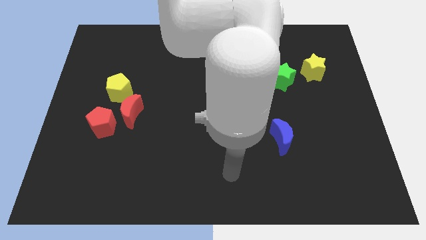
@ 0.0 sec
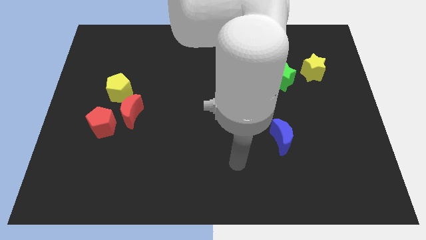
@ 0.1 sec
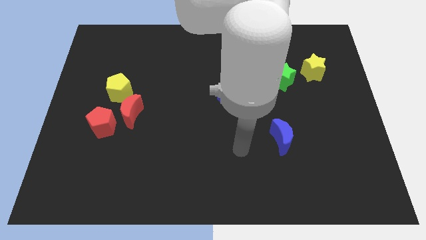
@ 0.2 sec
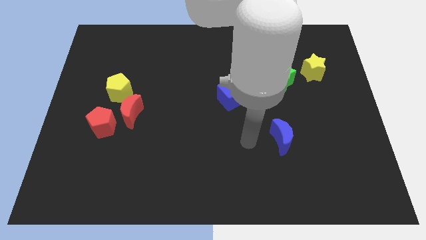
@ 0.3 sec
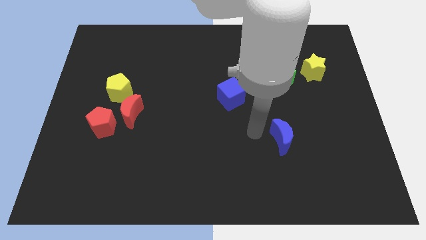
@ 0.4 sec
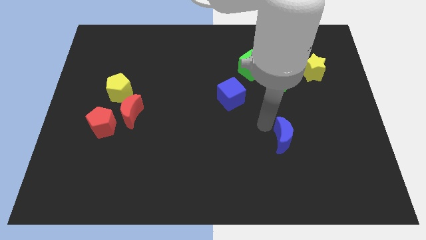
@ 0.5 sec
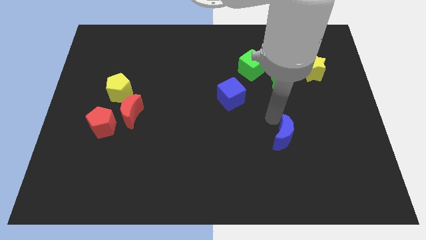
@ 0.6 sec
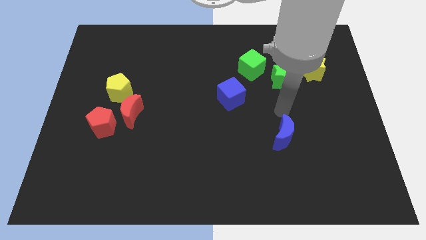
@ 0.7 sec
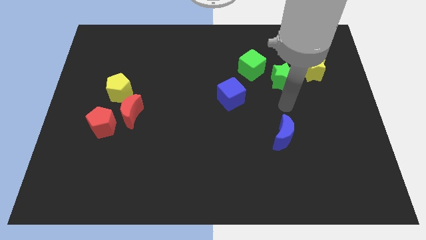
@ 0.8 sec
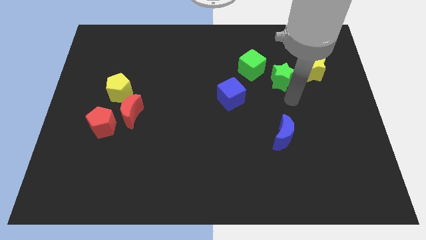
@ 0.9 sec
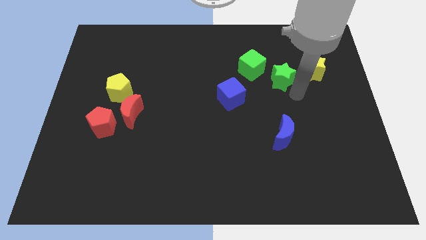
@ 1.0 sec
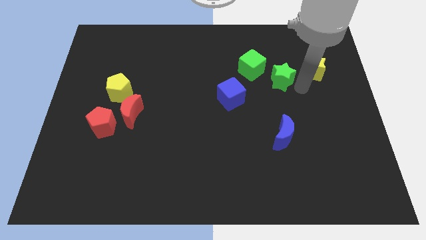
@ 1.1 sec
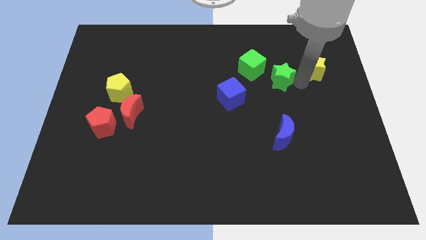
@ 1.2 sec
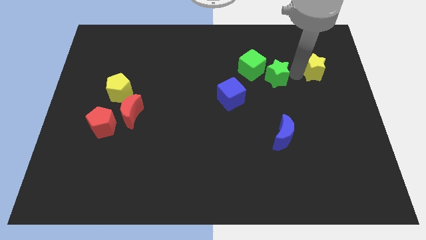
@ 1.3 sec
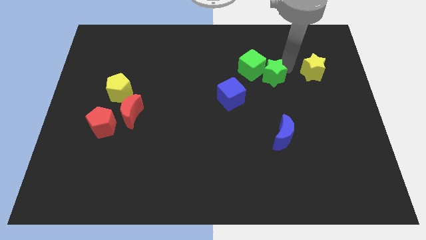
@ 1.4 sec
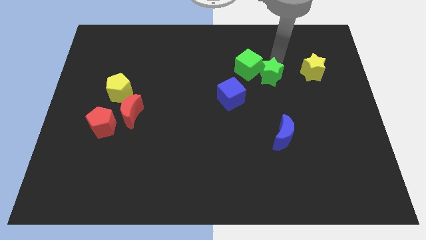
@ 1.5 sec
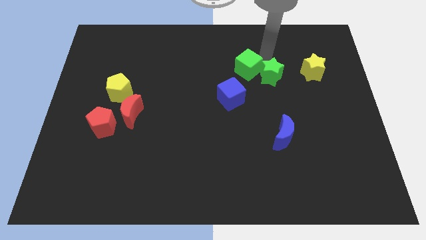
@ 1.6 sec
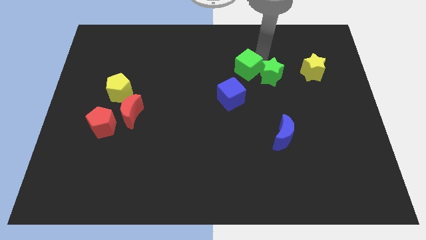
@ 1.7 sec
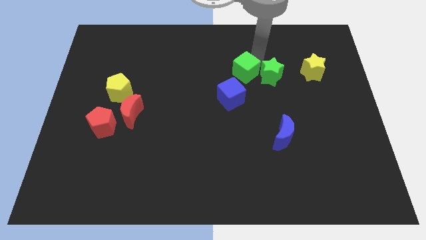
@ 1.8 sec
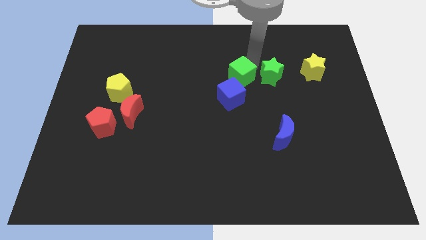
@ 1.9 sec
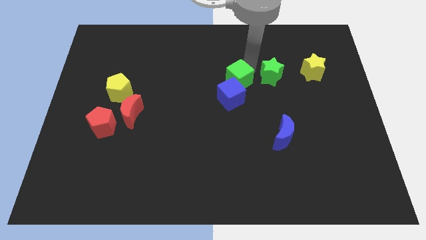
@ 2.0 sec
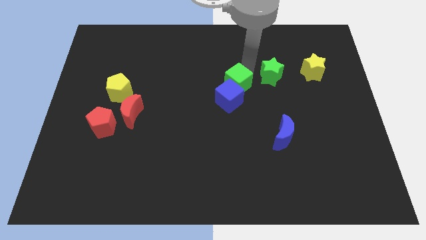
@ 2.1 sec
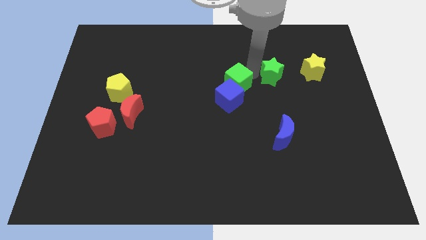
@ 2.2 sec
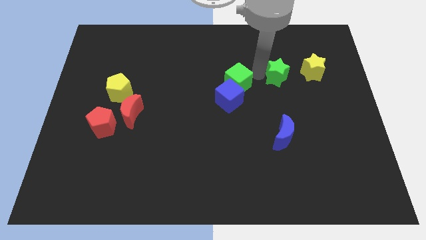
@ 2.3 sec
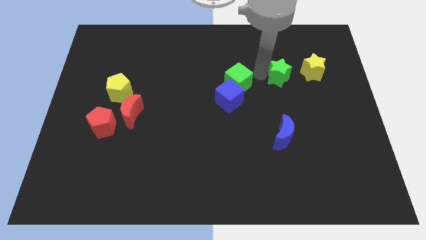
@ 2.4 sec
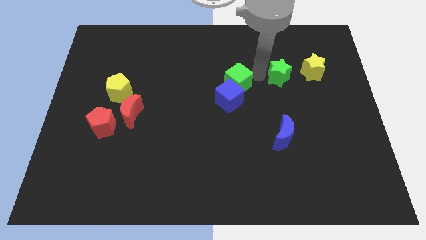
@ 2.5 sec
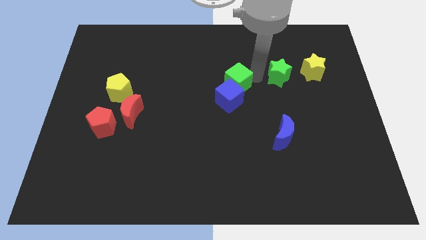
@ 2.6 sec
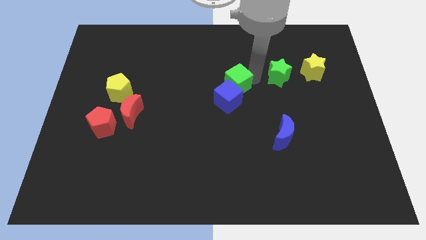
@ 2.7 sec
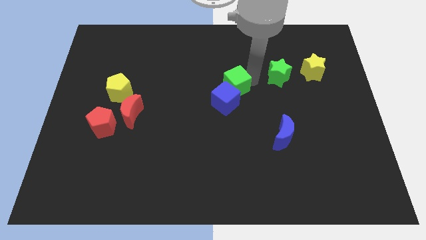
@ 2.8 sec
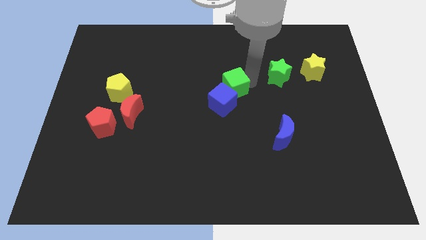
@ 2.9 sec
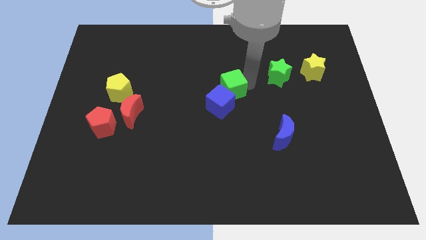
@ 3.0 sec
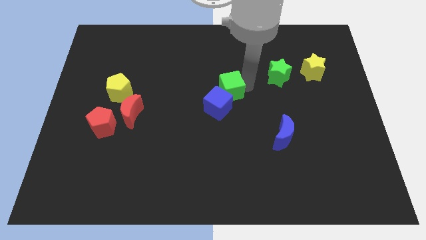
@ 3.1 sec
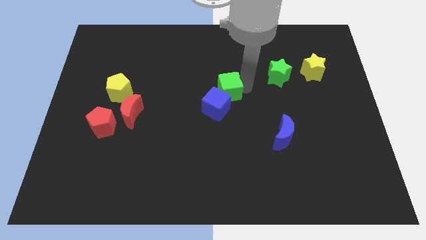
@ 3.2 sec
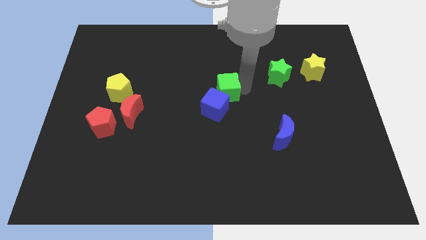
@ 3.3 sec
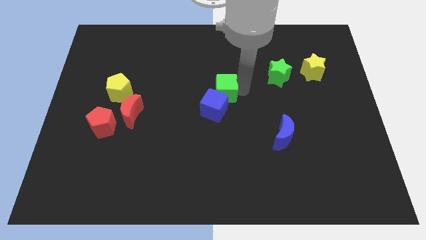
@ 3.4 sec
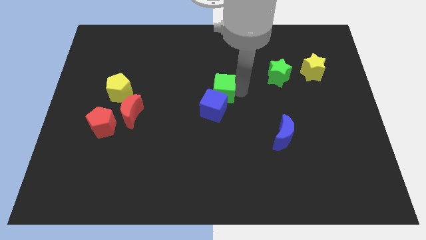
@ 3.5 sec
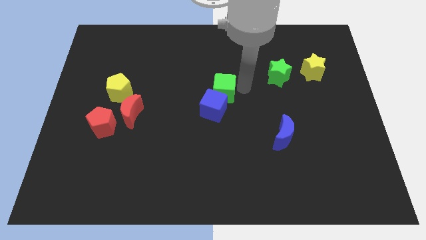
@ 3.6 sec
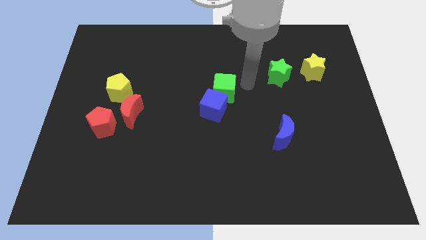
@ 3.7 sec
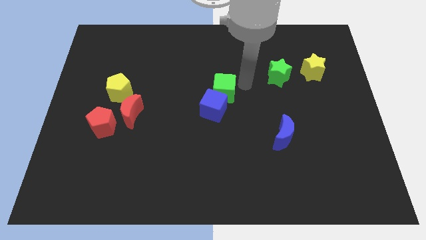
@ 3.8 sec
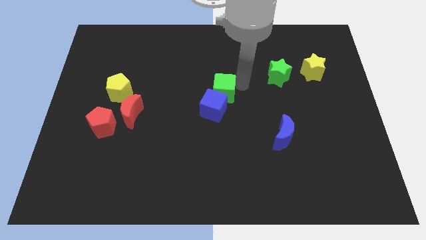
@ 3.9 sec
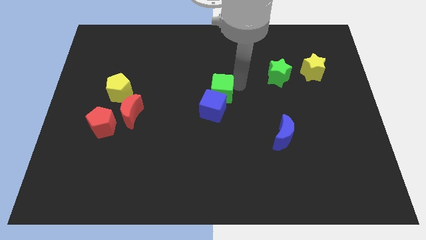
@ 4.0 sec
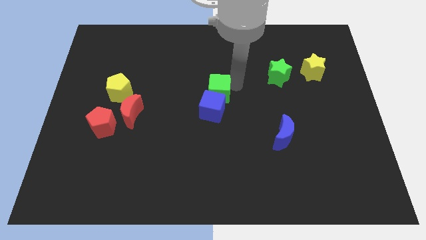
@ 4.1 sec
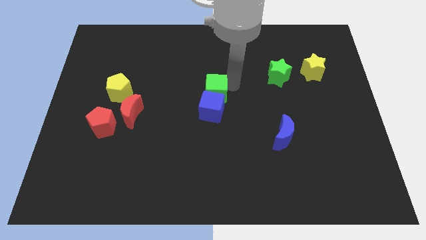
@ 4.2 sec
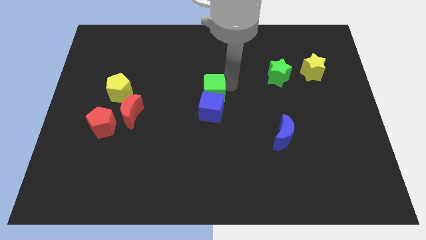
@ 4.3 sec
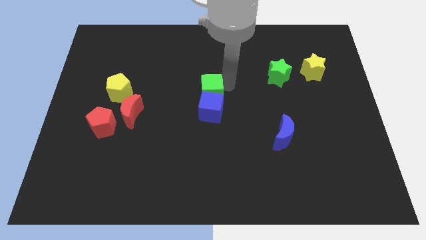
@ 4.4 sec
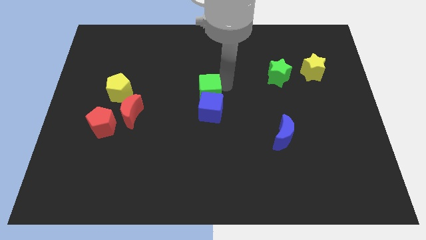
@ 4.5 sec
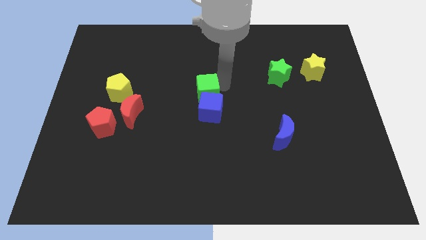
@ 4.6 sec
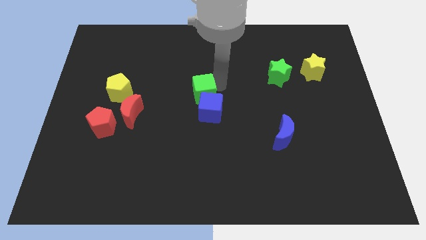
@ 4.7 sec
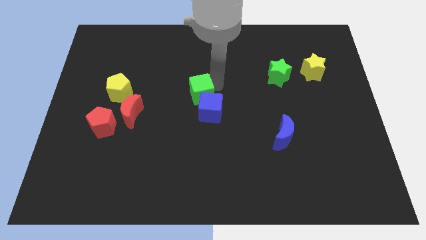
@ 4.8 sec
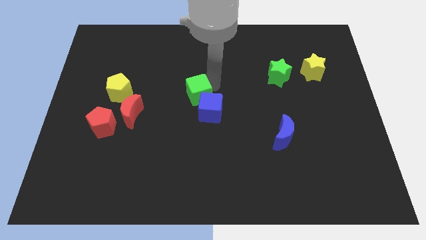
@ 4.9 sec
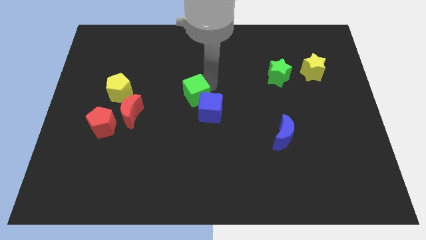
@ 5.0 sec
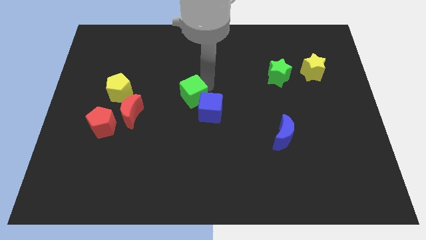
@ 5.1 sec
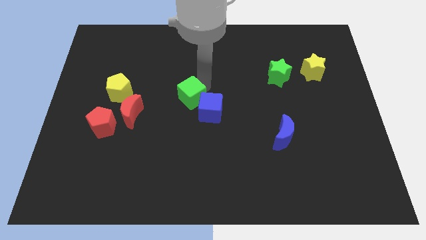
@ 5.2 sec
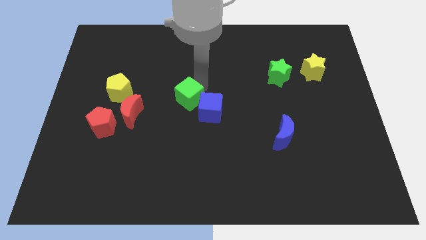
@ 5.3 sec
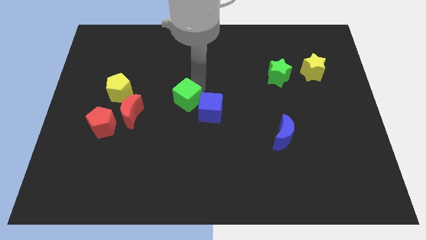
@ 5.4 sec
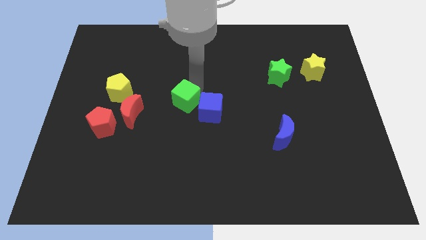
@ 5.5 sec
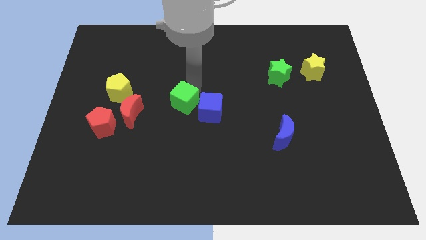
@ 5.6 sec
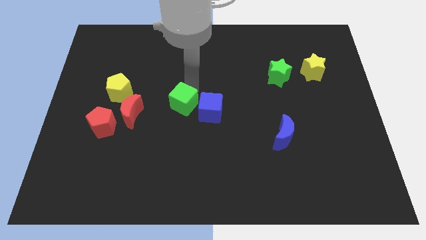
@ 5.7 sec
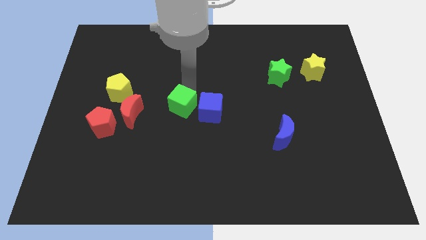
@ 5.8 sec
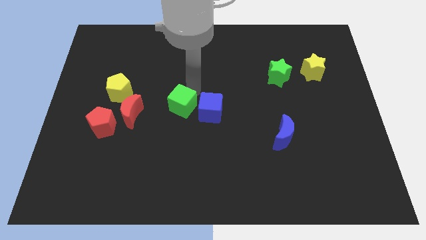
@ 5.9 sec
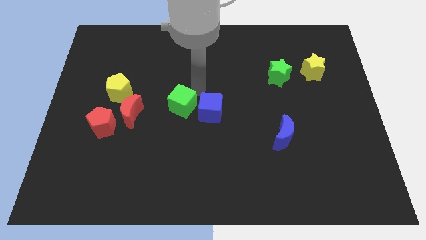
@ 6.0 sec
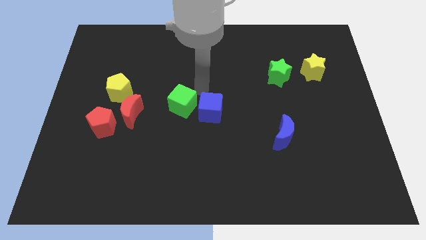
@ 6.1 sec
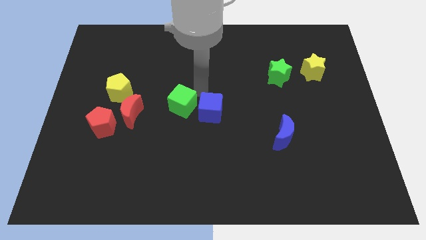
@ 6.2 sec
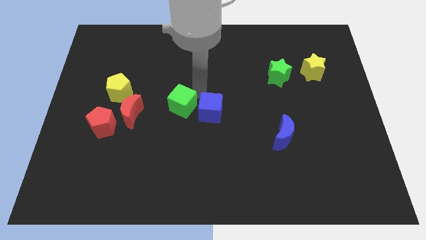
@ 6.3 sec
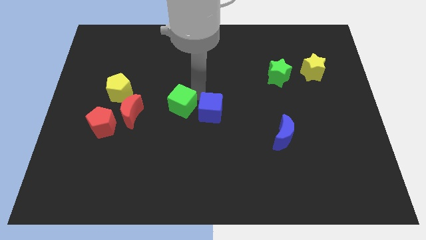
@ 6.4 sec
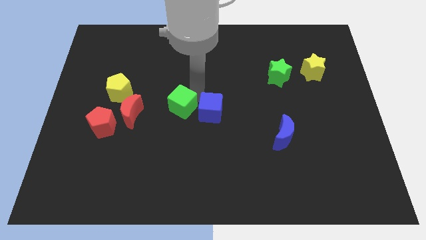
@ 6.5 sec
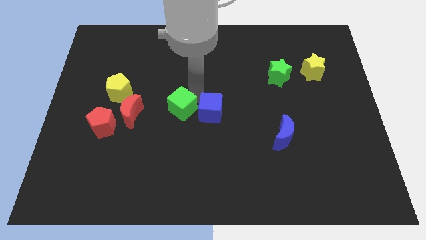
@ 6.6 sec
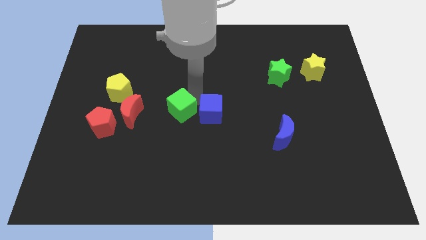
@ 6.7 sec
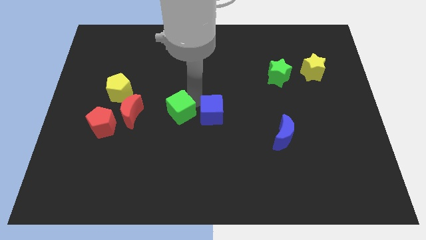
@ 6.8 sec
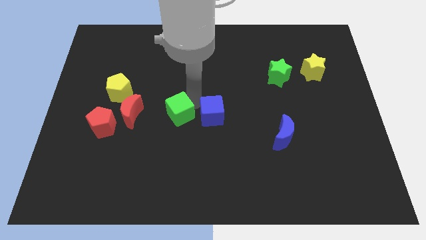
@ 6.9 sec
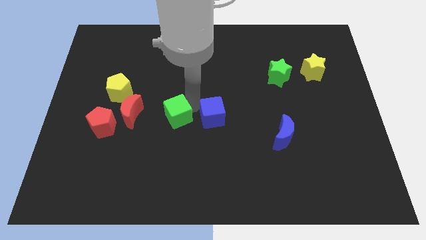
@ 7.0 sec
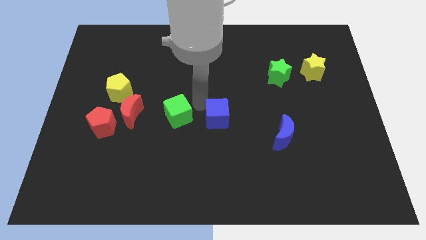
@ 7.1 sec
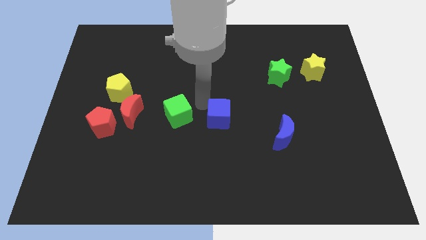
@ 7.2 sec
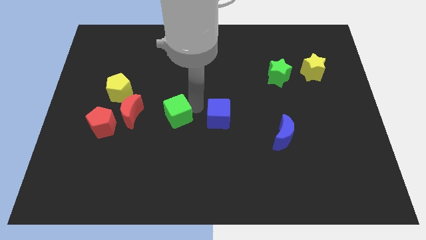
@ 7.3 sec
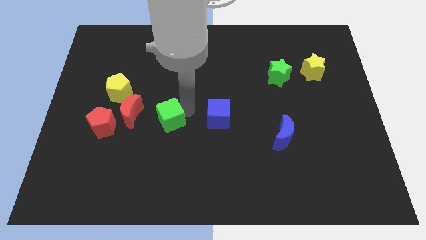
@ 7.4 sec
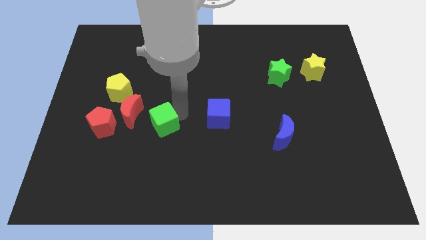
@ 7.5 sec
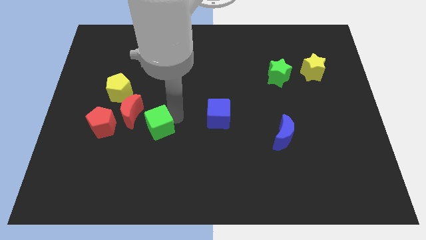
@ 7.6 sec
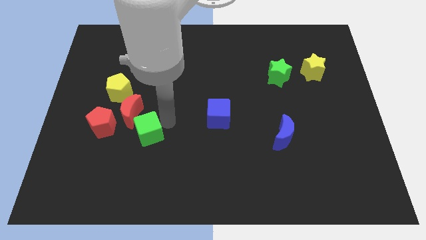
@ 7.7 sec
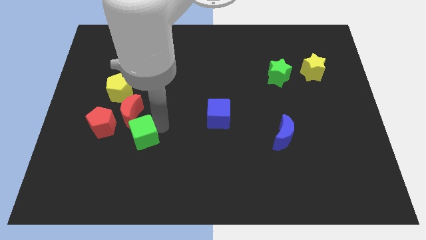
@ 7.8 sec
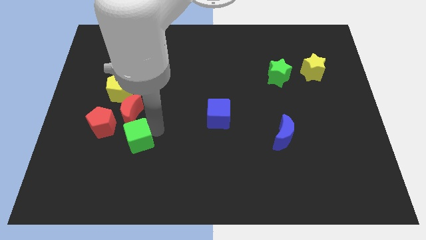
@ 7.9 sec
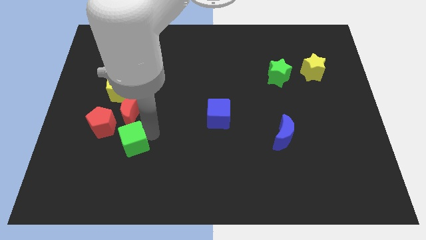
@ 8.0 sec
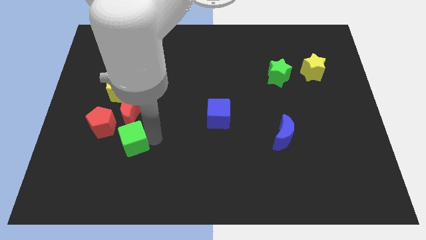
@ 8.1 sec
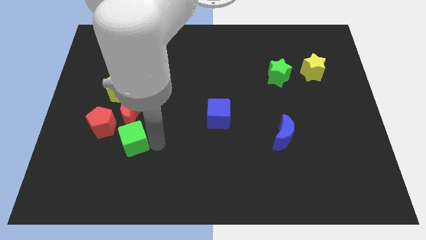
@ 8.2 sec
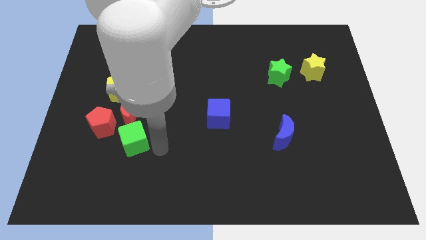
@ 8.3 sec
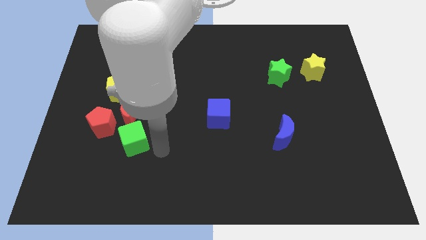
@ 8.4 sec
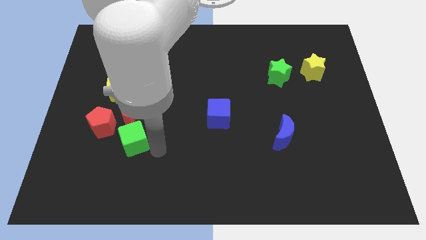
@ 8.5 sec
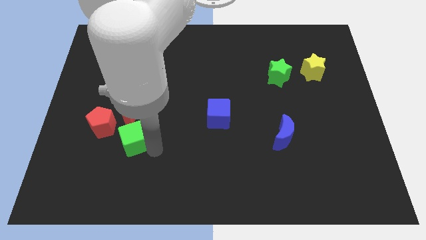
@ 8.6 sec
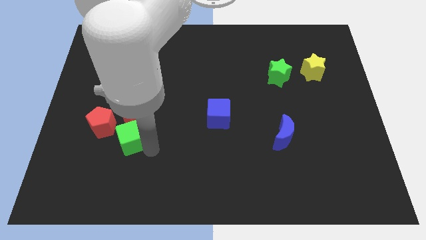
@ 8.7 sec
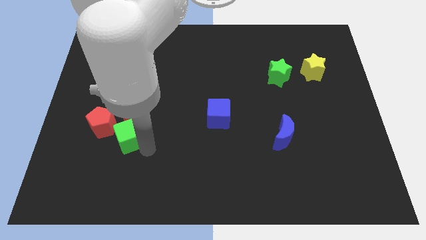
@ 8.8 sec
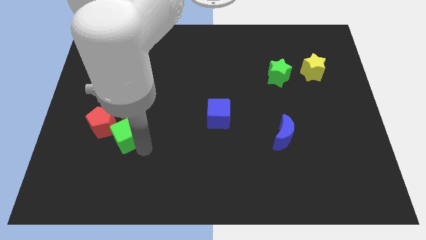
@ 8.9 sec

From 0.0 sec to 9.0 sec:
put the green cube to the bottom left of the red moon
